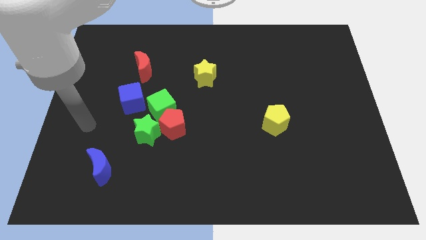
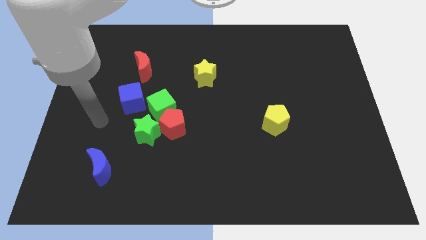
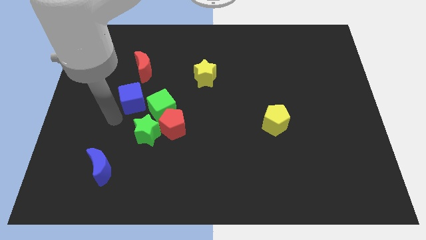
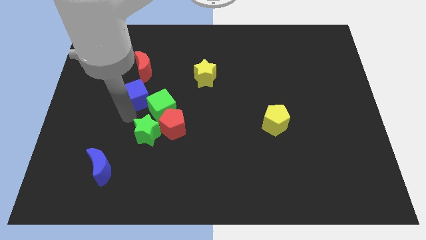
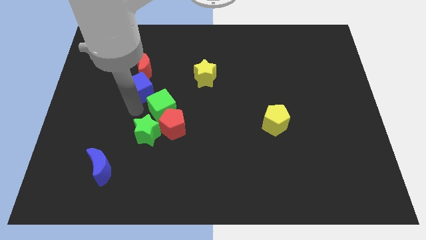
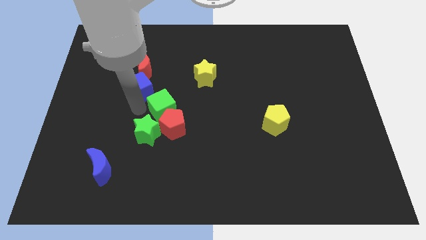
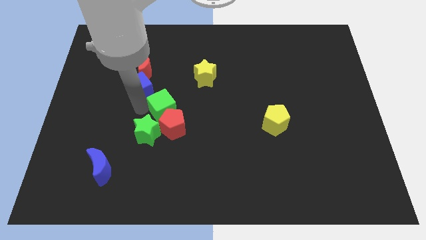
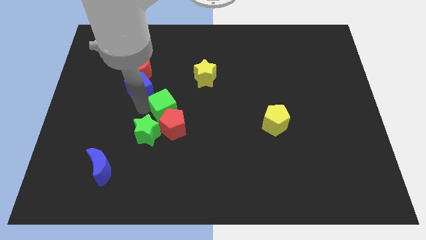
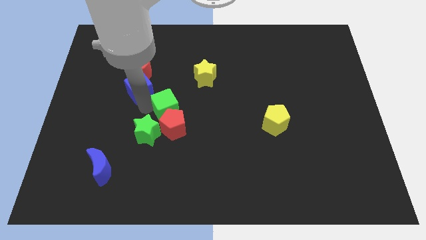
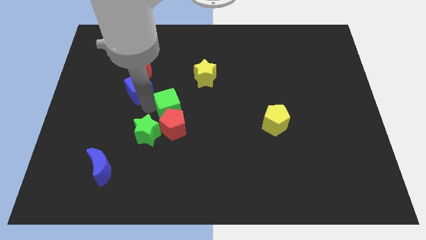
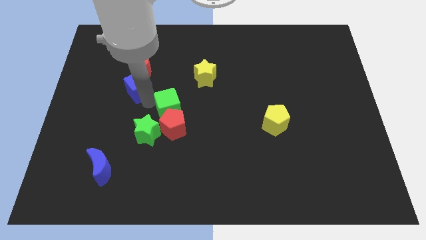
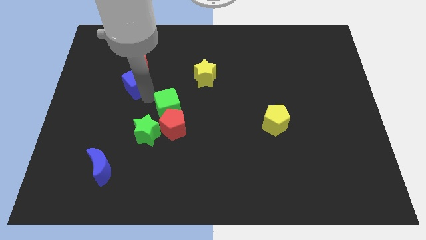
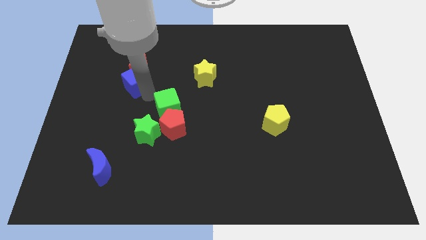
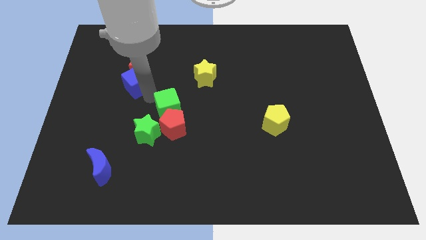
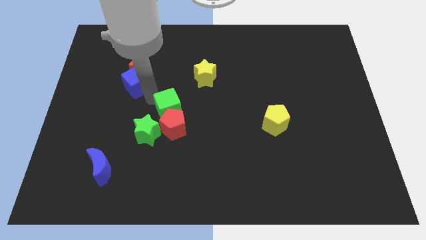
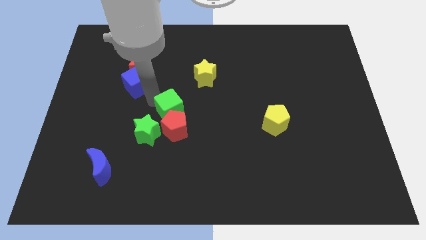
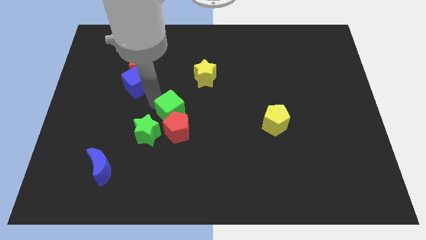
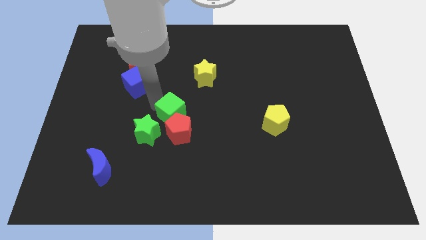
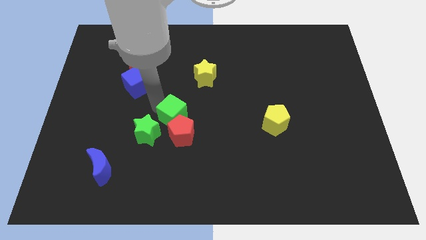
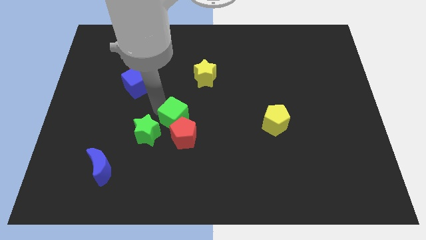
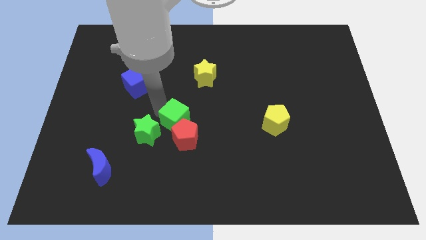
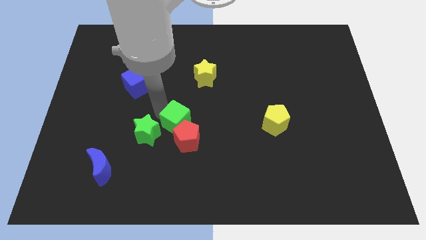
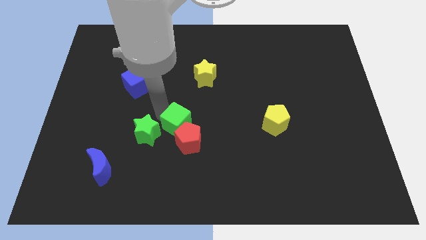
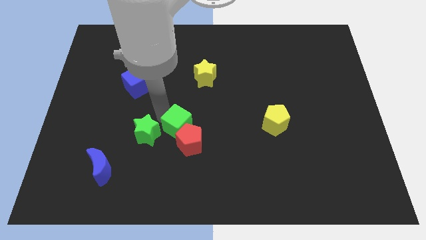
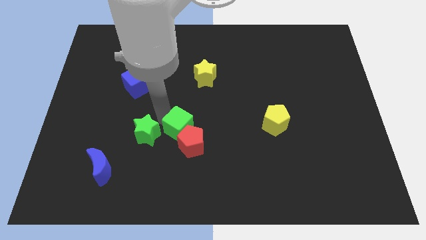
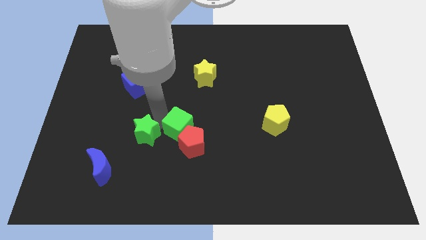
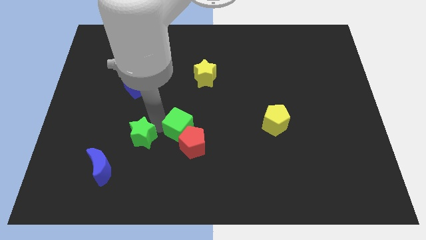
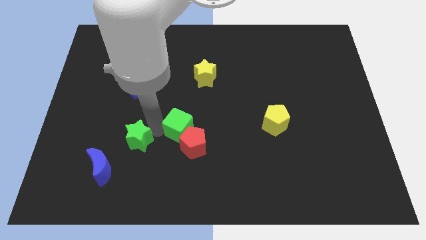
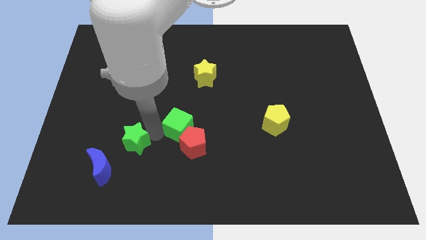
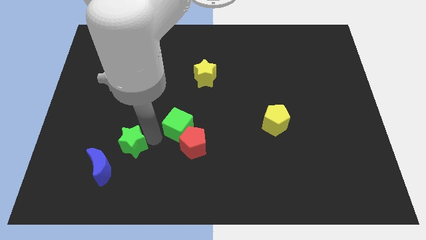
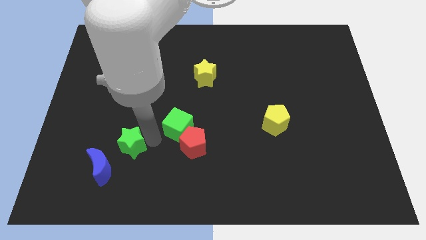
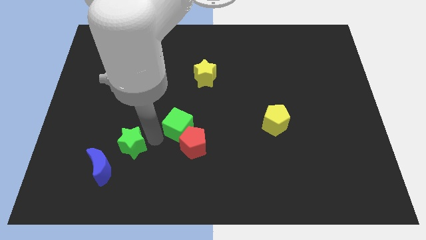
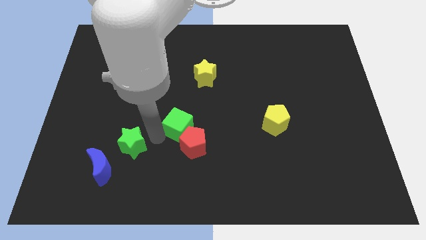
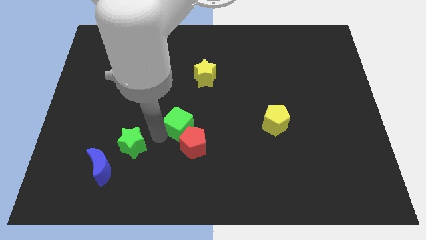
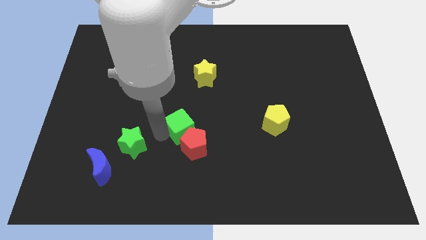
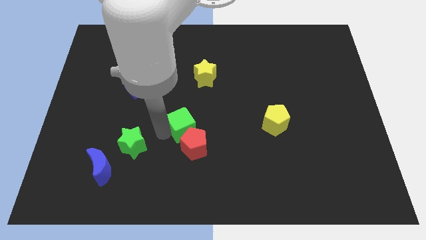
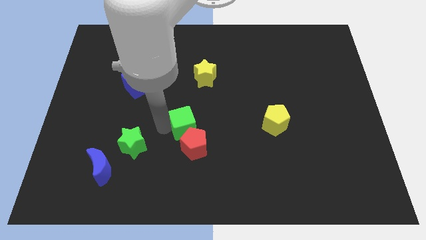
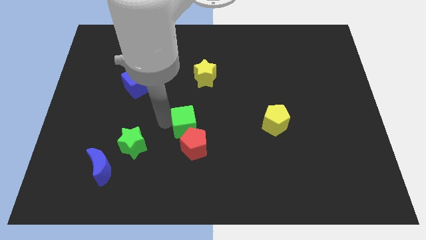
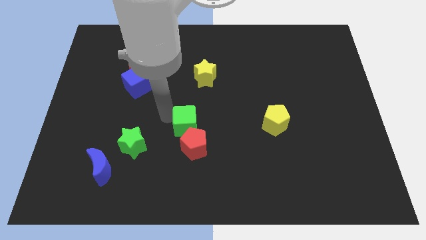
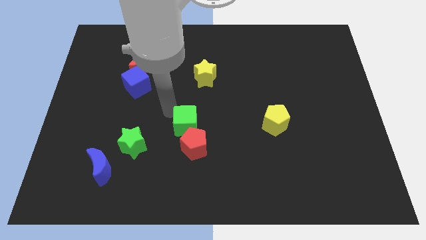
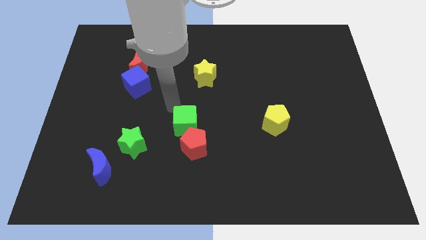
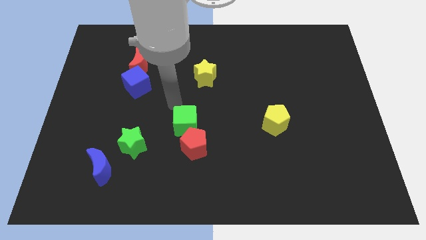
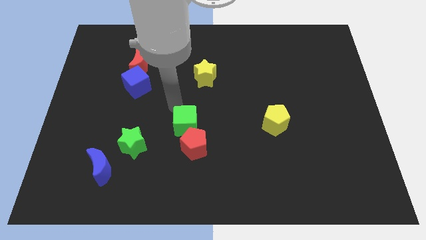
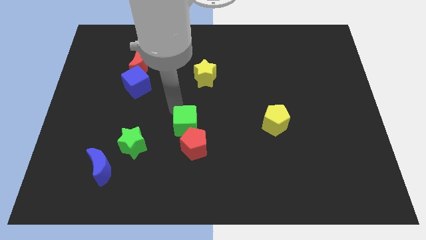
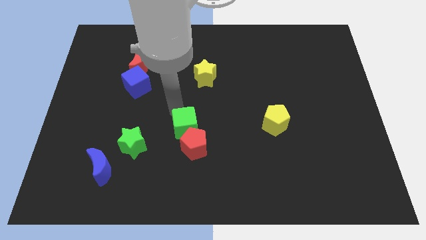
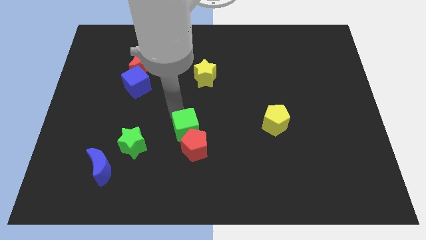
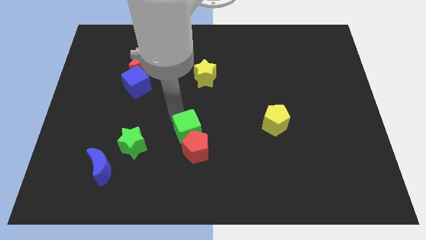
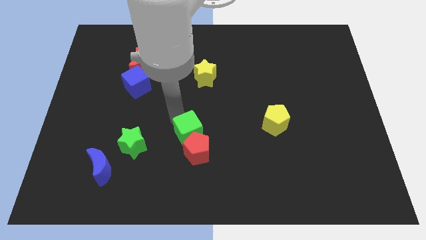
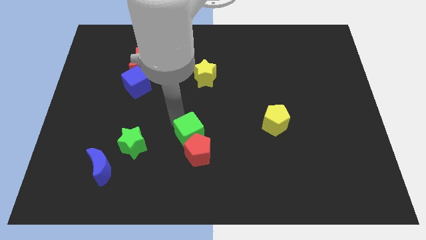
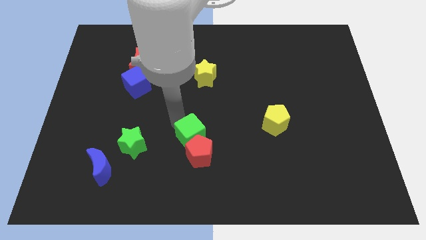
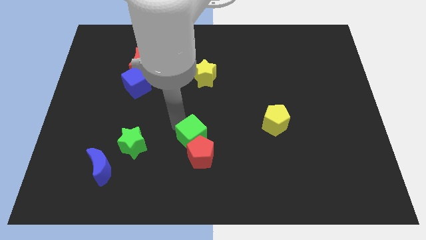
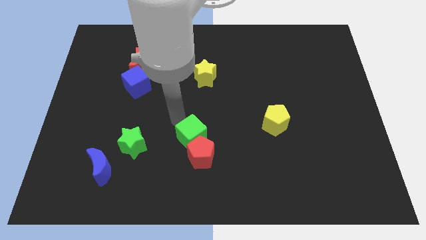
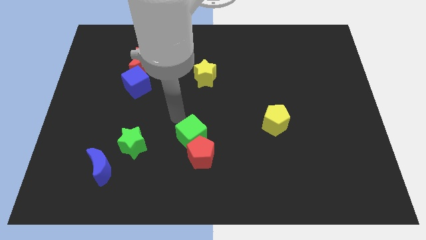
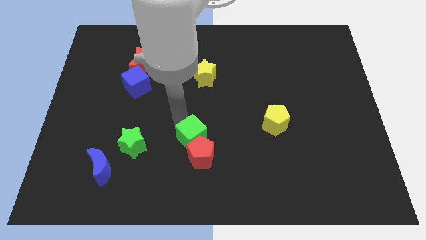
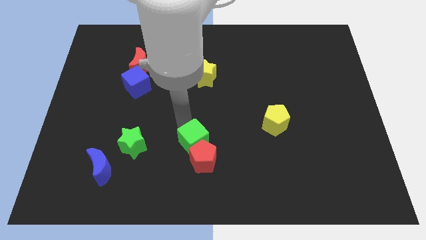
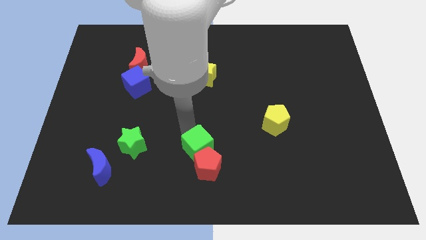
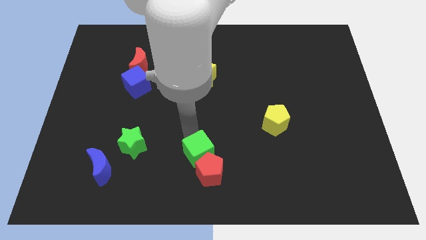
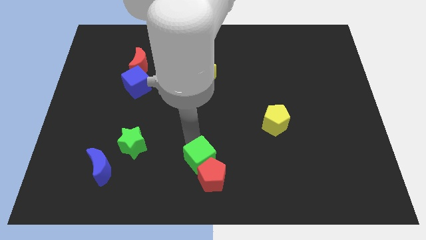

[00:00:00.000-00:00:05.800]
slide the green cube to the bottom
